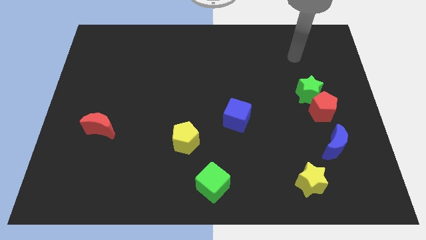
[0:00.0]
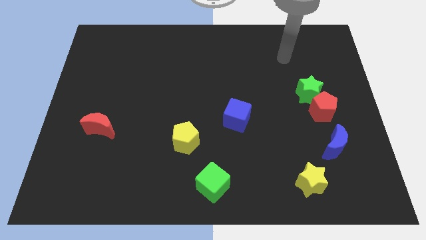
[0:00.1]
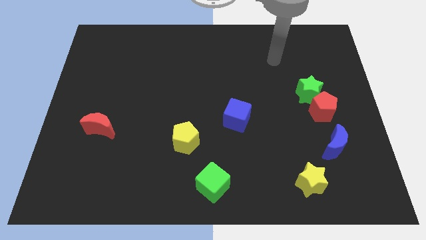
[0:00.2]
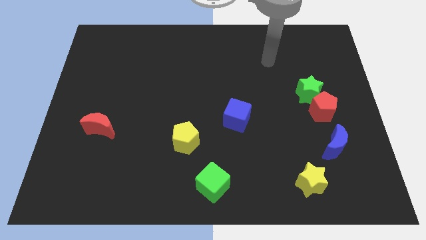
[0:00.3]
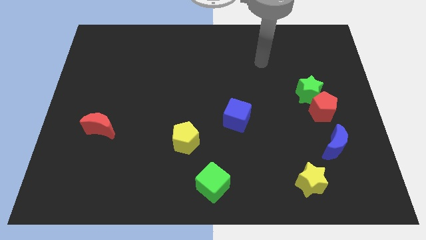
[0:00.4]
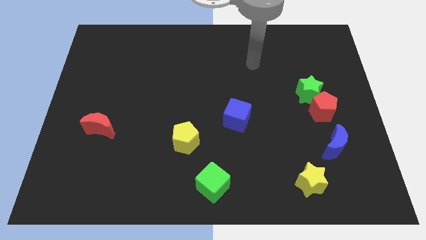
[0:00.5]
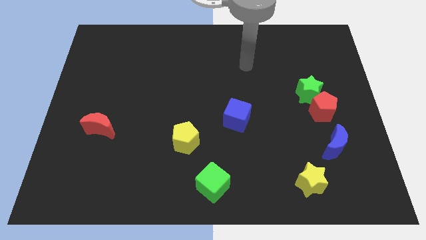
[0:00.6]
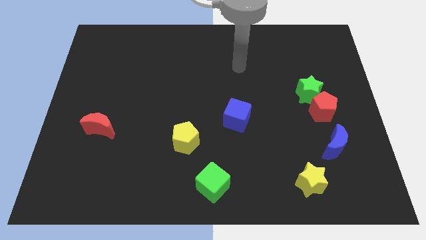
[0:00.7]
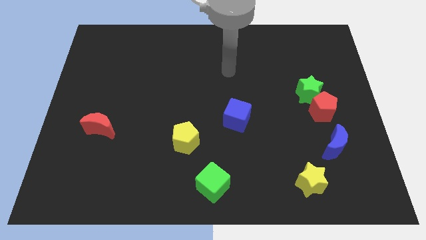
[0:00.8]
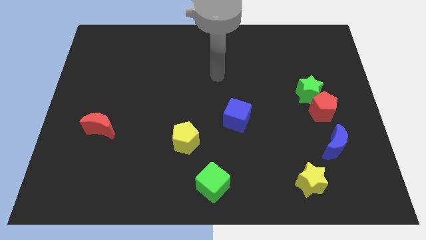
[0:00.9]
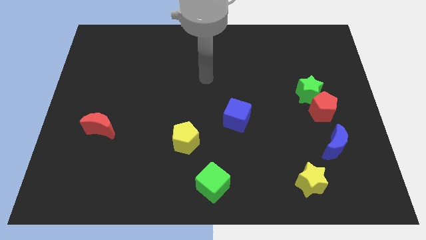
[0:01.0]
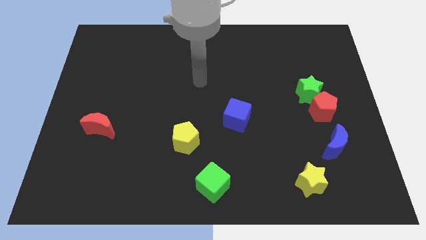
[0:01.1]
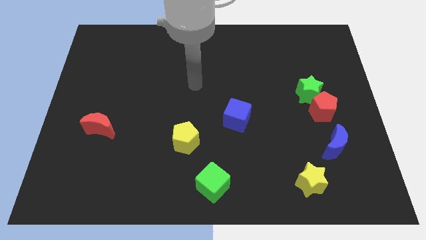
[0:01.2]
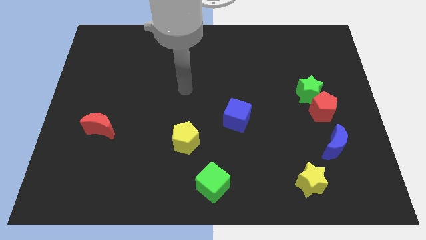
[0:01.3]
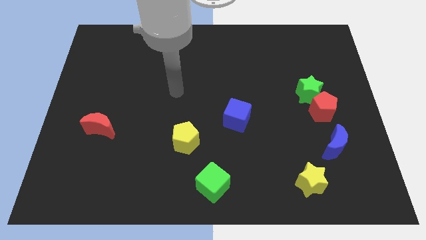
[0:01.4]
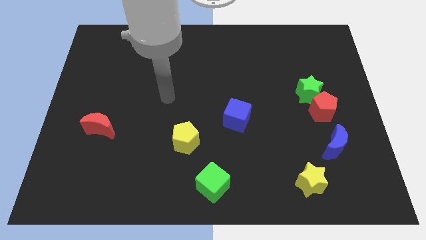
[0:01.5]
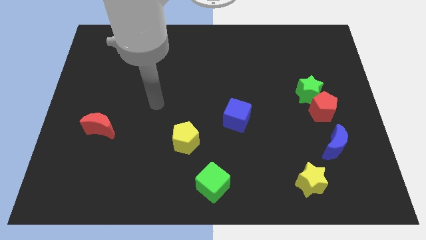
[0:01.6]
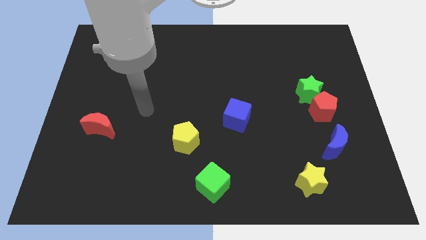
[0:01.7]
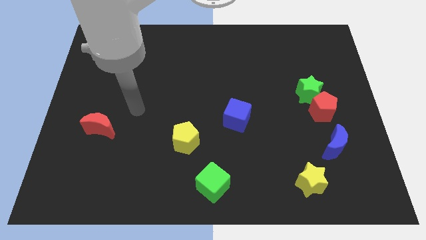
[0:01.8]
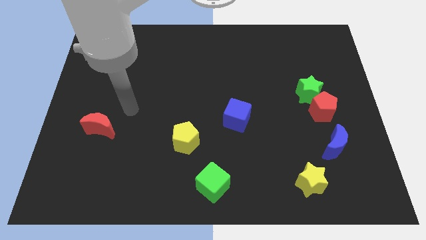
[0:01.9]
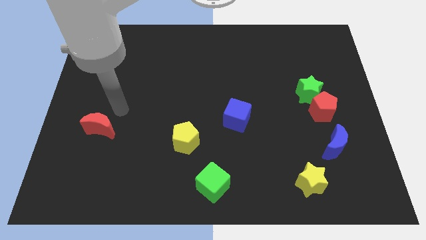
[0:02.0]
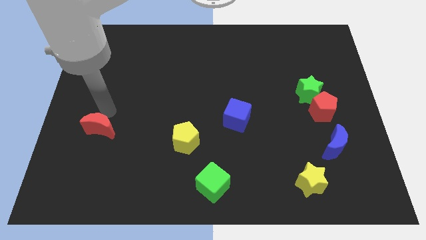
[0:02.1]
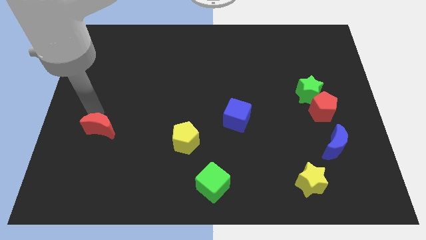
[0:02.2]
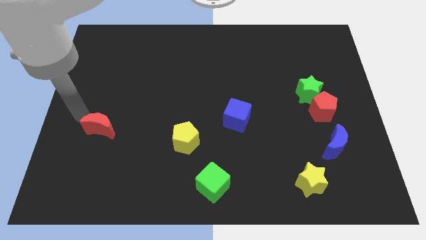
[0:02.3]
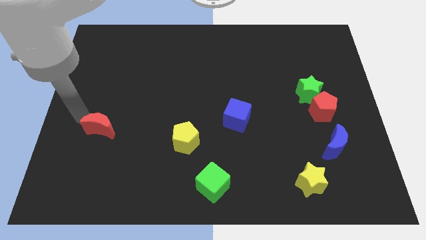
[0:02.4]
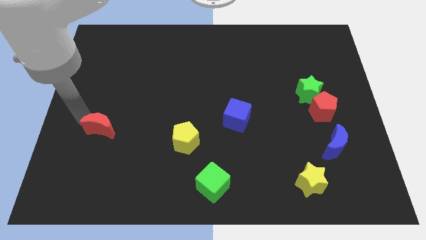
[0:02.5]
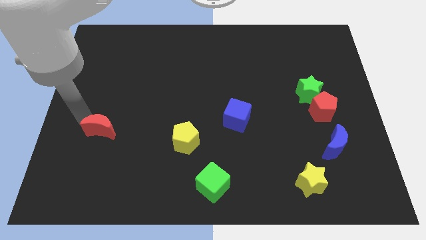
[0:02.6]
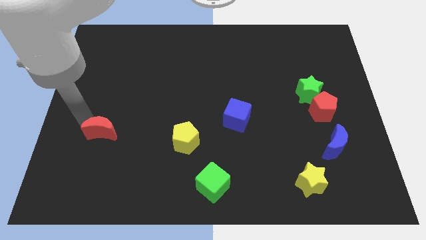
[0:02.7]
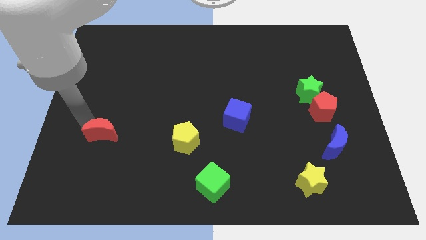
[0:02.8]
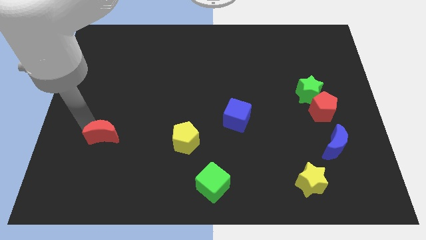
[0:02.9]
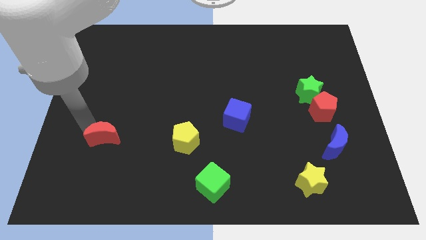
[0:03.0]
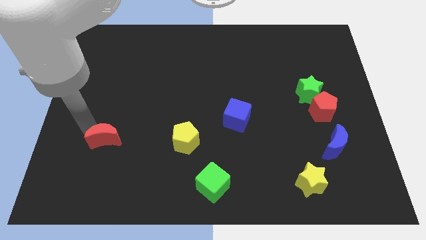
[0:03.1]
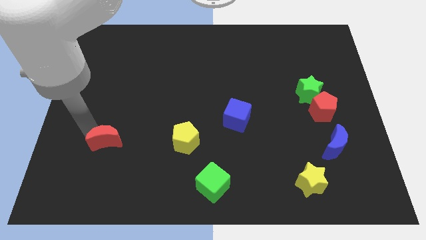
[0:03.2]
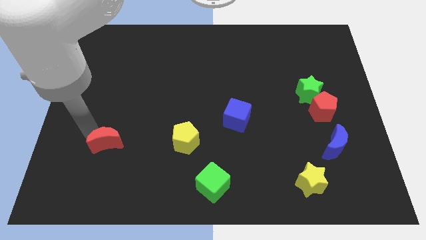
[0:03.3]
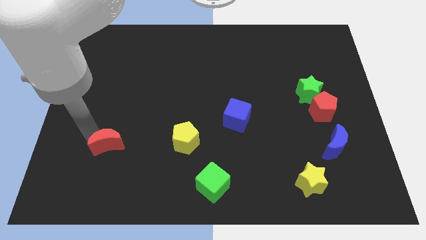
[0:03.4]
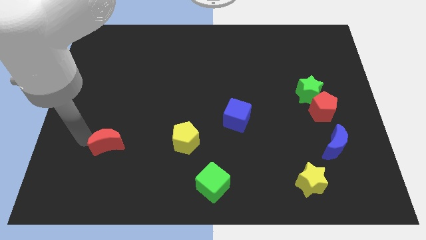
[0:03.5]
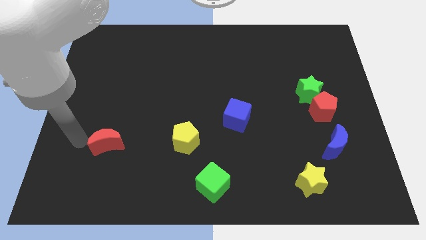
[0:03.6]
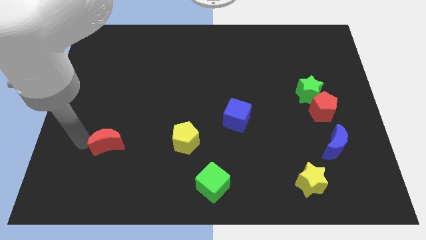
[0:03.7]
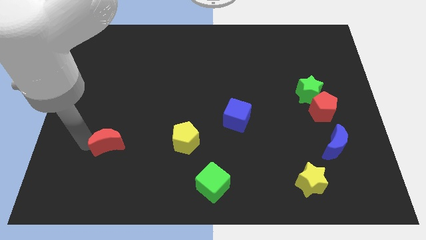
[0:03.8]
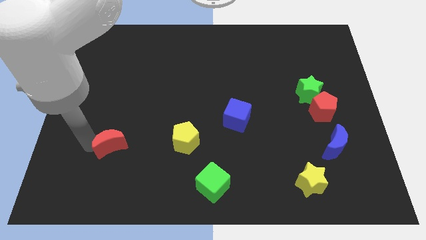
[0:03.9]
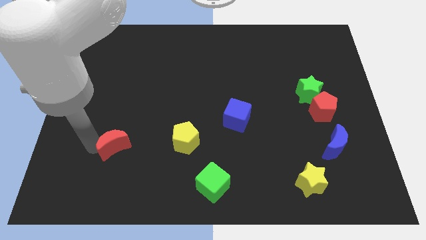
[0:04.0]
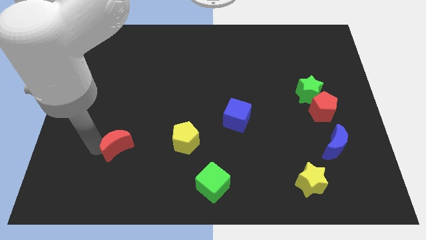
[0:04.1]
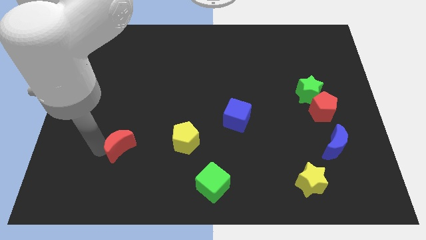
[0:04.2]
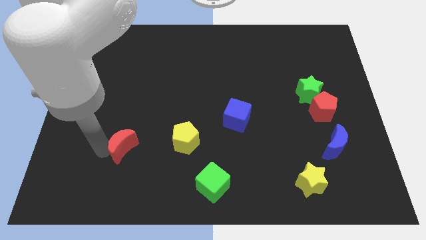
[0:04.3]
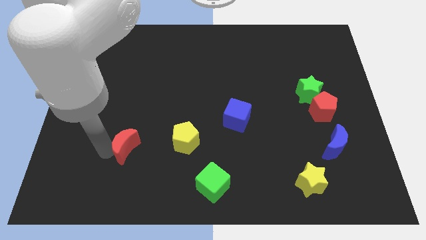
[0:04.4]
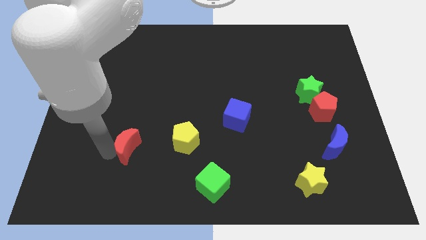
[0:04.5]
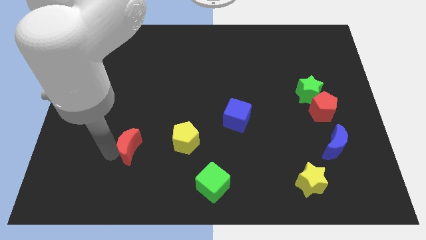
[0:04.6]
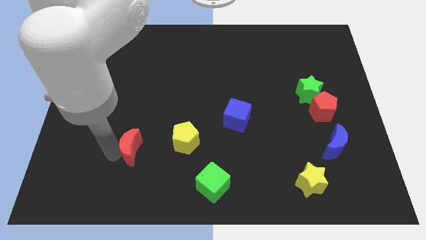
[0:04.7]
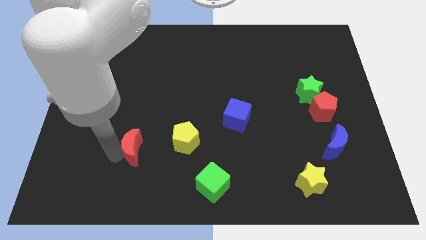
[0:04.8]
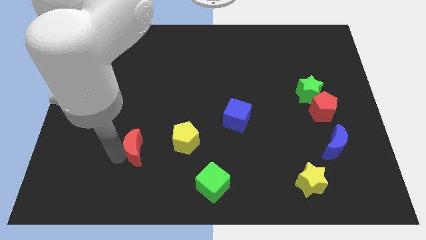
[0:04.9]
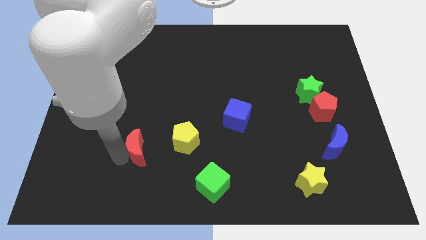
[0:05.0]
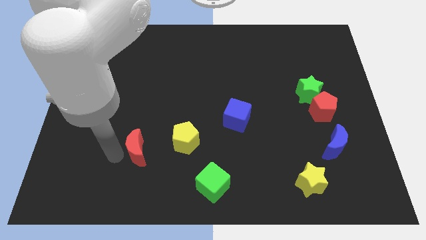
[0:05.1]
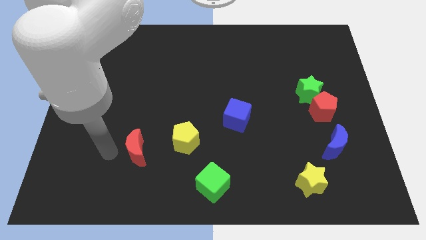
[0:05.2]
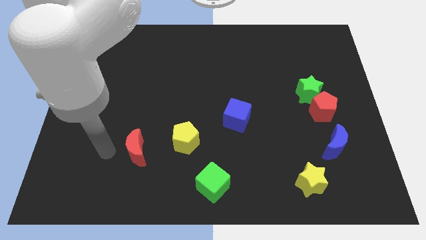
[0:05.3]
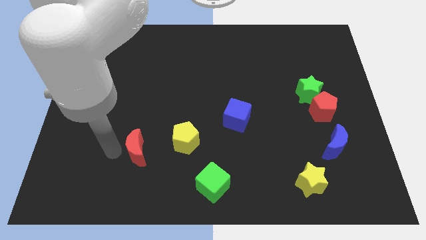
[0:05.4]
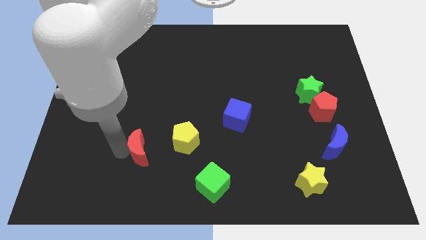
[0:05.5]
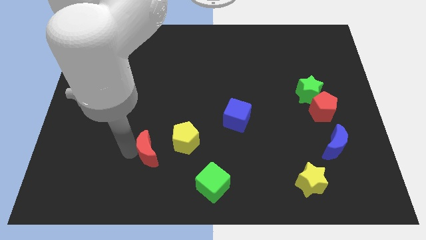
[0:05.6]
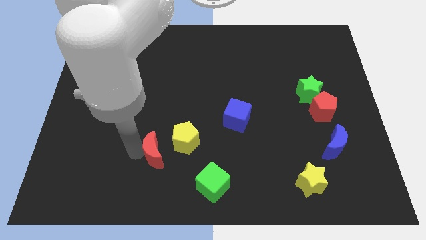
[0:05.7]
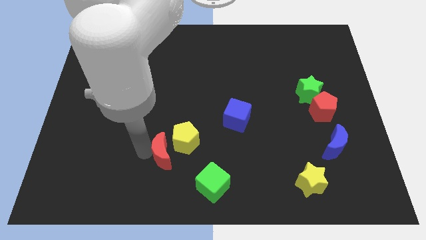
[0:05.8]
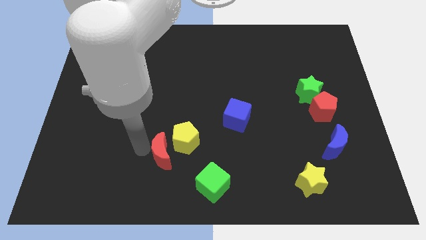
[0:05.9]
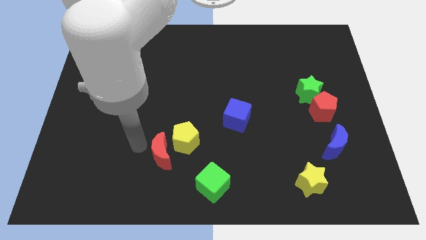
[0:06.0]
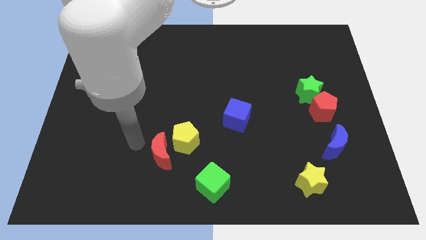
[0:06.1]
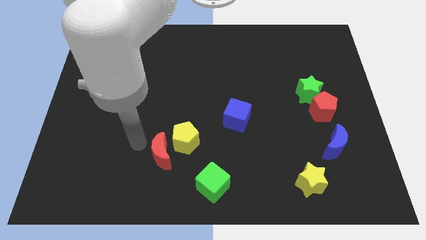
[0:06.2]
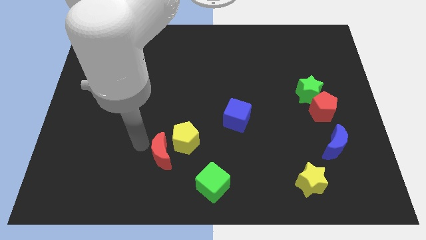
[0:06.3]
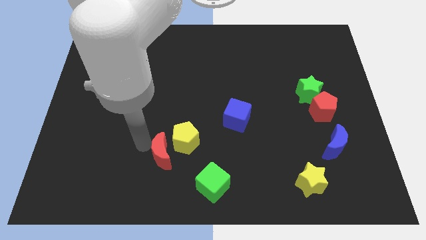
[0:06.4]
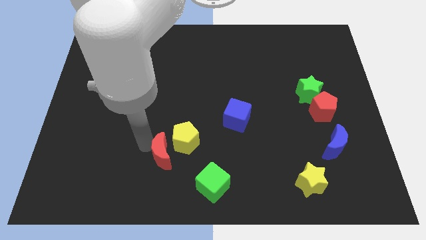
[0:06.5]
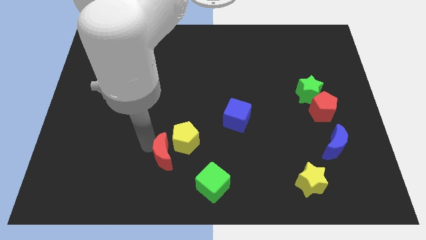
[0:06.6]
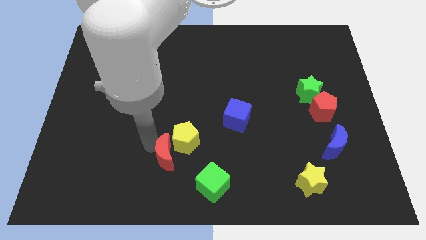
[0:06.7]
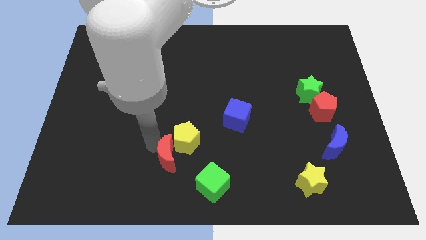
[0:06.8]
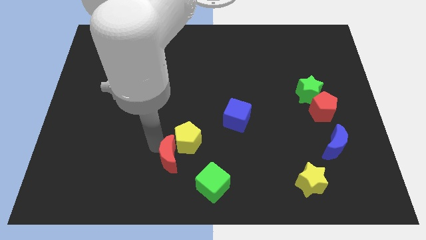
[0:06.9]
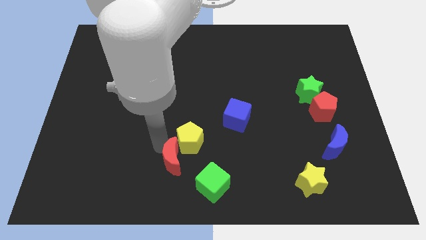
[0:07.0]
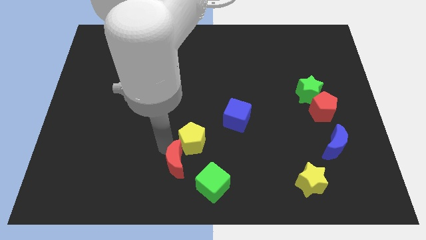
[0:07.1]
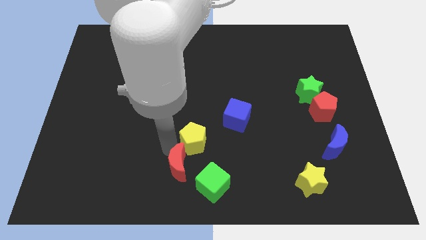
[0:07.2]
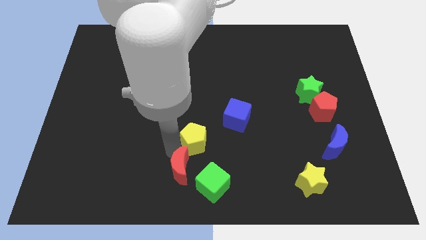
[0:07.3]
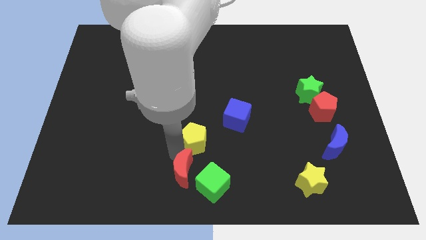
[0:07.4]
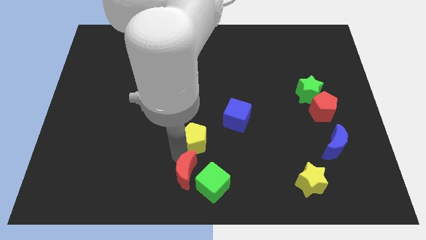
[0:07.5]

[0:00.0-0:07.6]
push the red moon towards the green cube
